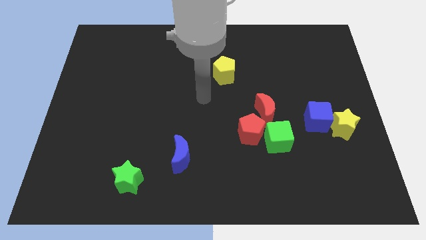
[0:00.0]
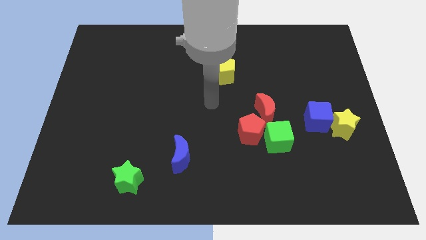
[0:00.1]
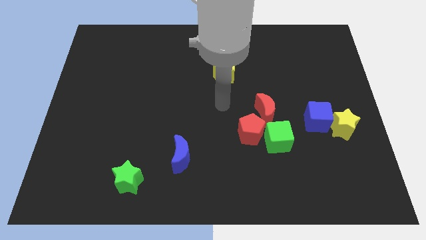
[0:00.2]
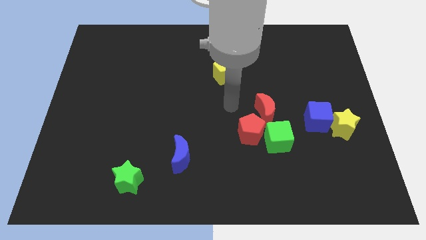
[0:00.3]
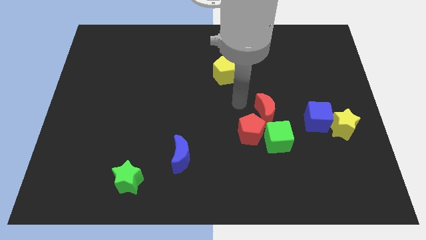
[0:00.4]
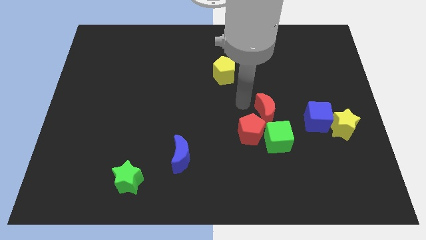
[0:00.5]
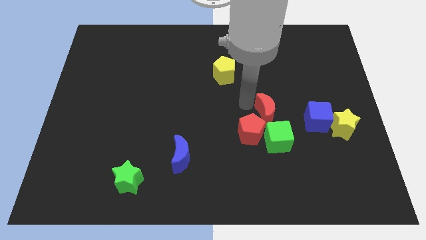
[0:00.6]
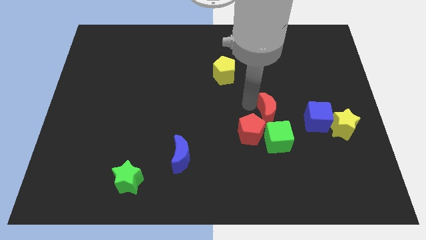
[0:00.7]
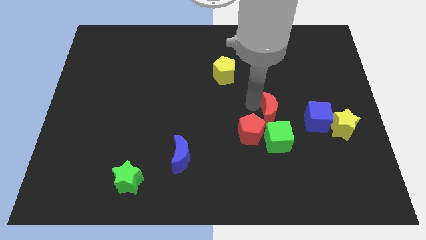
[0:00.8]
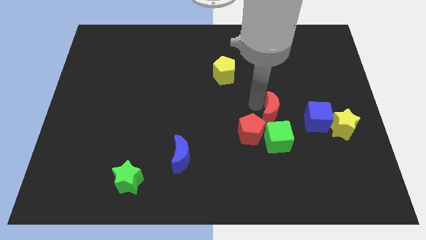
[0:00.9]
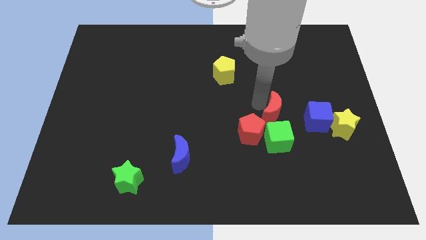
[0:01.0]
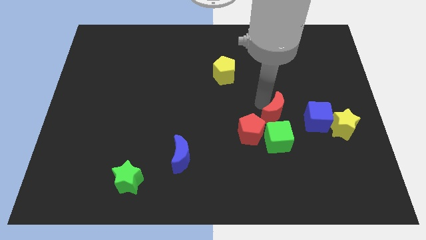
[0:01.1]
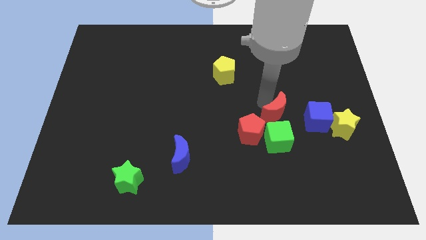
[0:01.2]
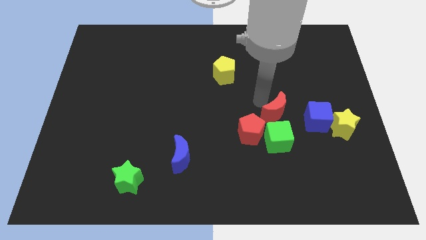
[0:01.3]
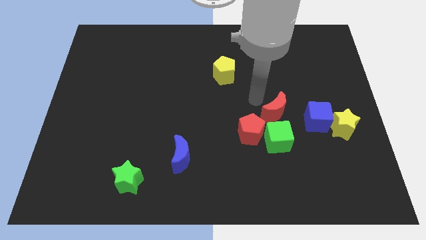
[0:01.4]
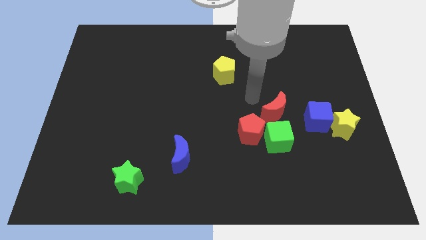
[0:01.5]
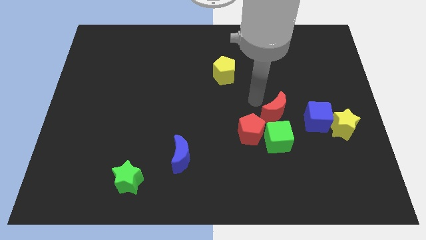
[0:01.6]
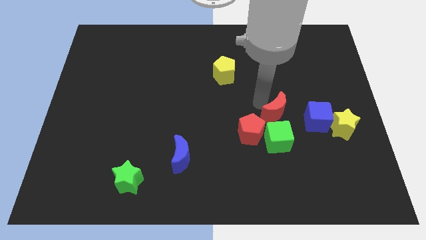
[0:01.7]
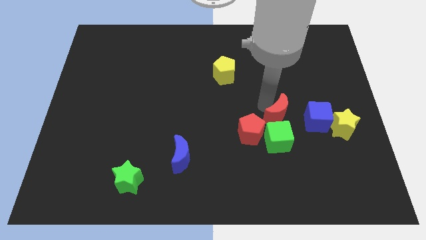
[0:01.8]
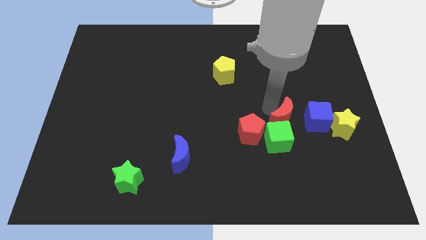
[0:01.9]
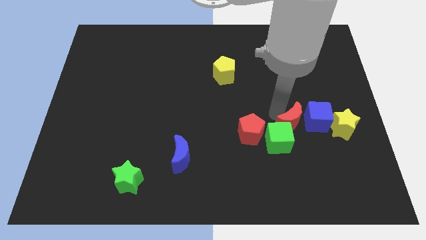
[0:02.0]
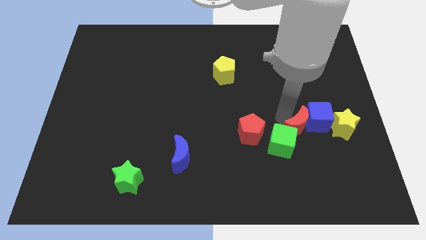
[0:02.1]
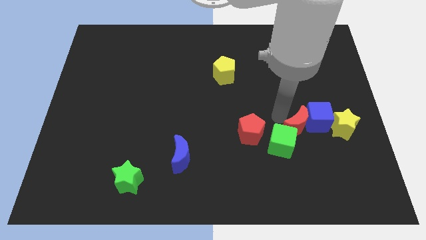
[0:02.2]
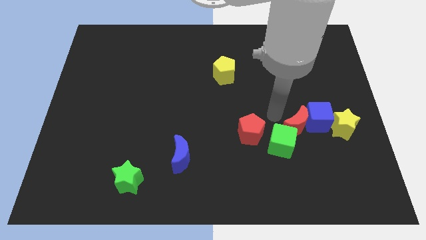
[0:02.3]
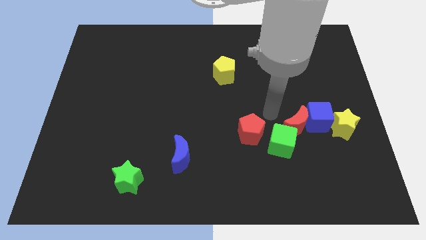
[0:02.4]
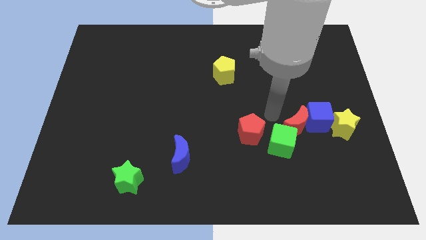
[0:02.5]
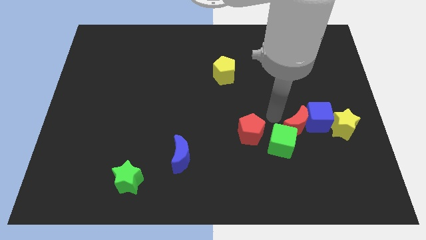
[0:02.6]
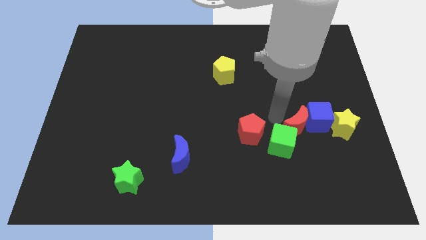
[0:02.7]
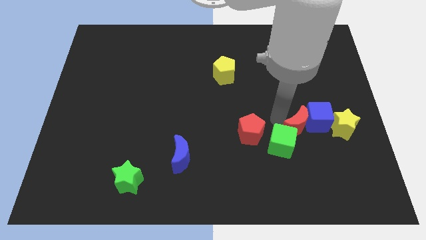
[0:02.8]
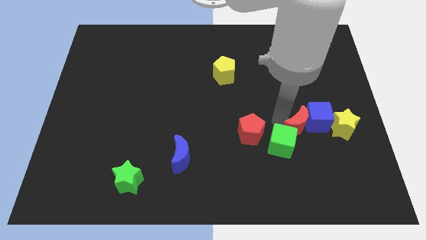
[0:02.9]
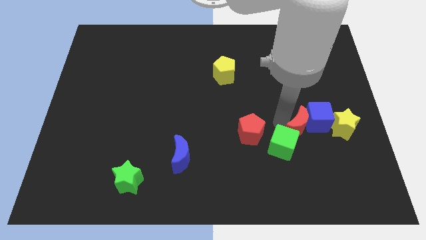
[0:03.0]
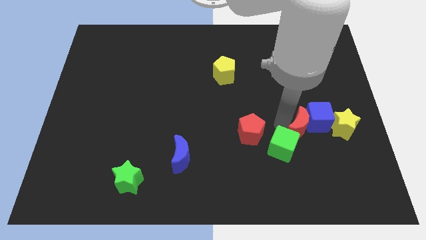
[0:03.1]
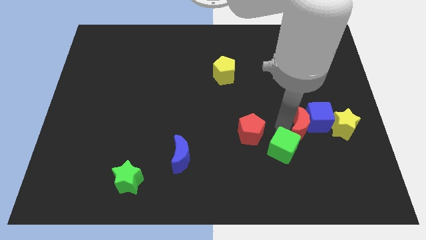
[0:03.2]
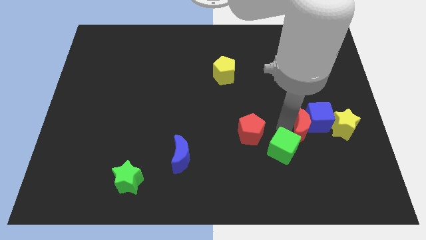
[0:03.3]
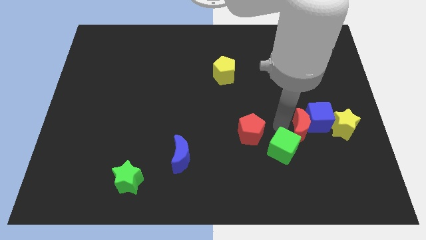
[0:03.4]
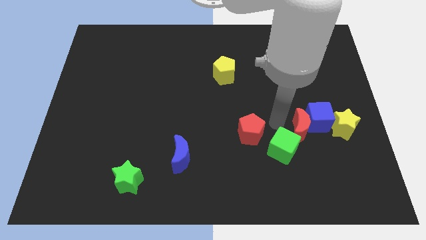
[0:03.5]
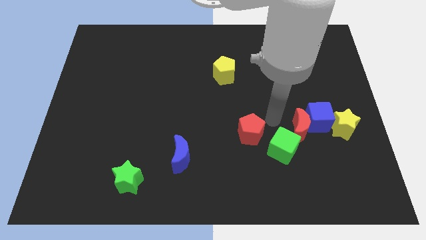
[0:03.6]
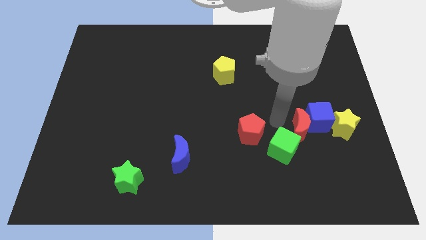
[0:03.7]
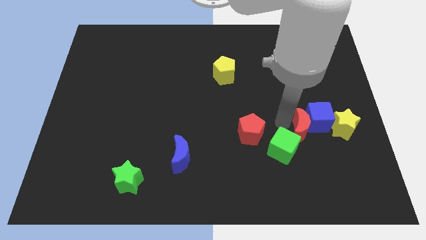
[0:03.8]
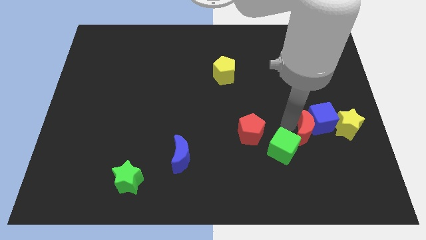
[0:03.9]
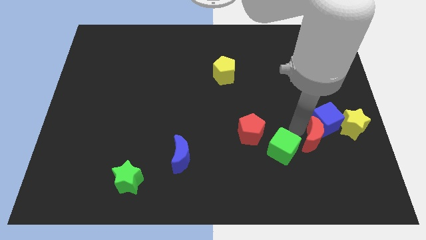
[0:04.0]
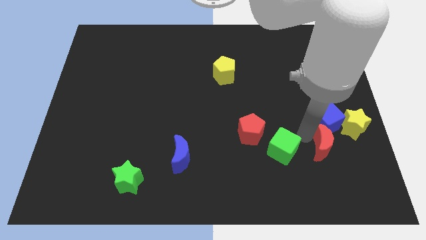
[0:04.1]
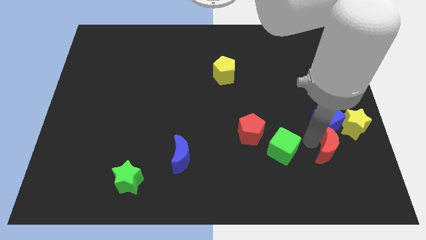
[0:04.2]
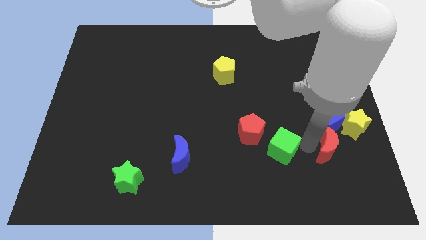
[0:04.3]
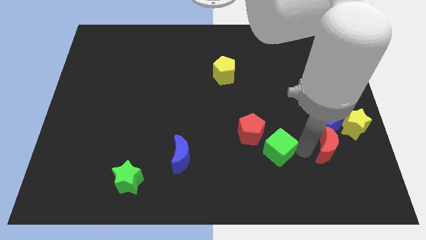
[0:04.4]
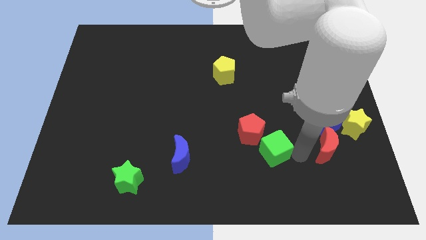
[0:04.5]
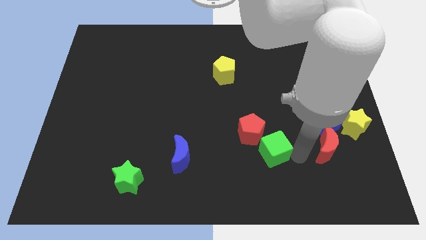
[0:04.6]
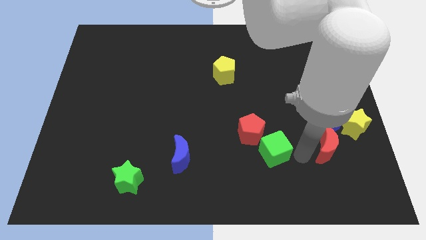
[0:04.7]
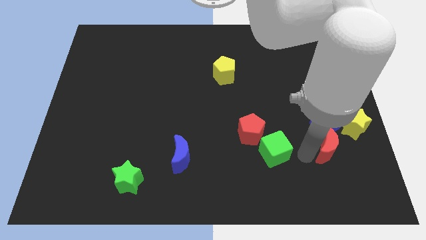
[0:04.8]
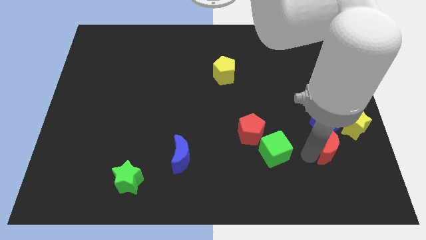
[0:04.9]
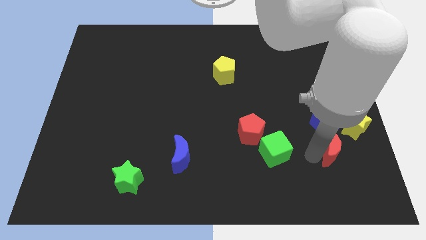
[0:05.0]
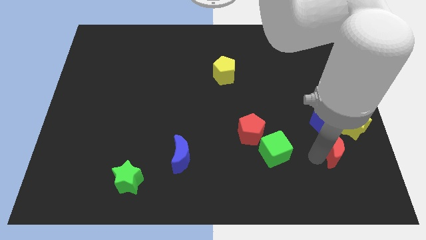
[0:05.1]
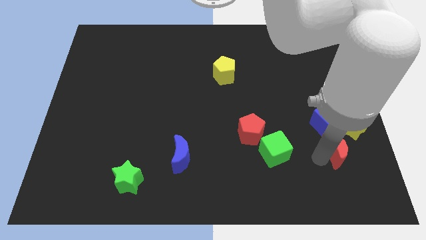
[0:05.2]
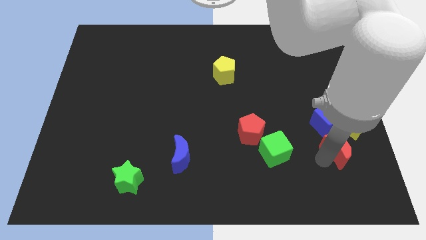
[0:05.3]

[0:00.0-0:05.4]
put the red moon to the bottom right of the blue cube

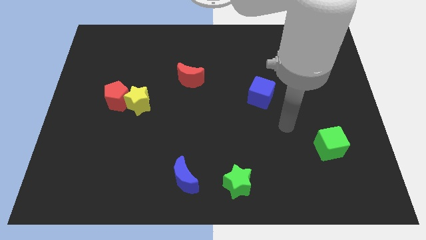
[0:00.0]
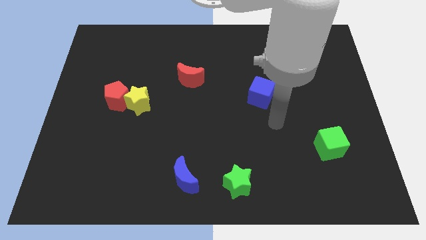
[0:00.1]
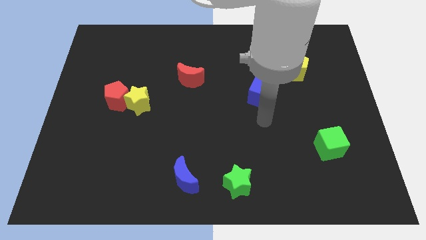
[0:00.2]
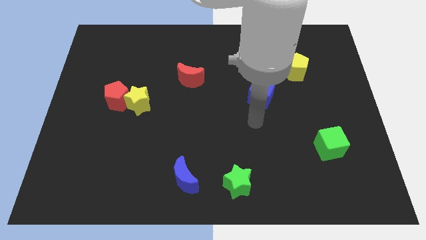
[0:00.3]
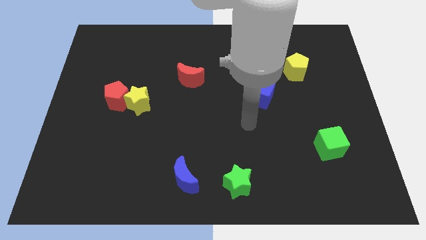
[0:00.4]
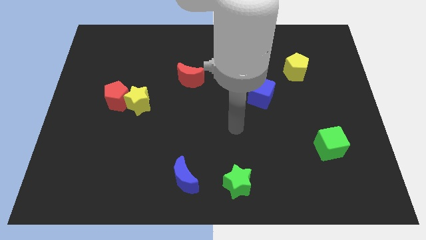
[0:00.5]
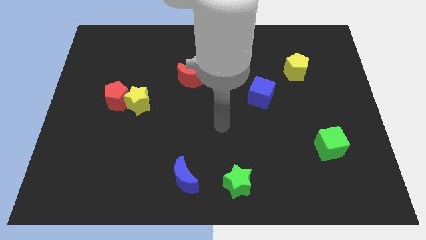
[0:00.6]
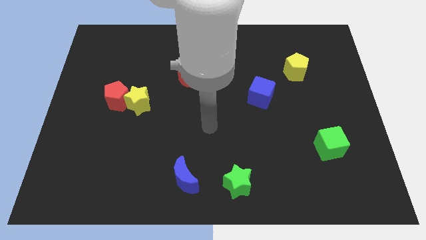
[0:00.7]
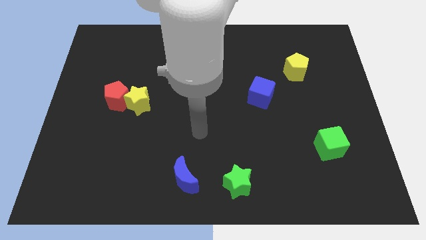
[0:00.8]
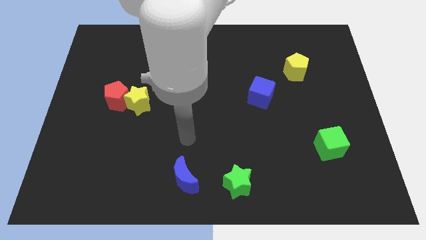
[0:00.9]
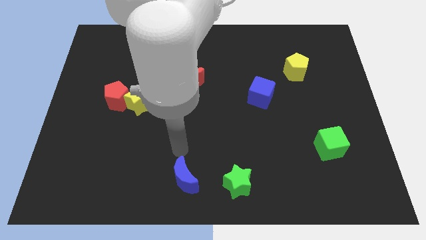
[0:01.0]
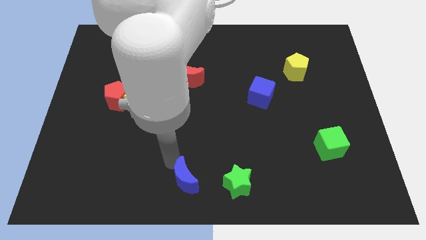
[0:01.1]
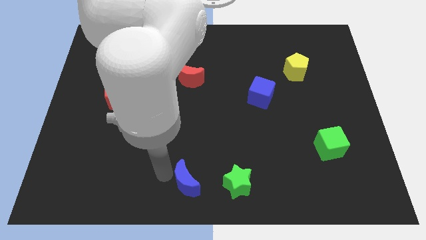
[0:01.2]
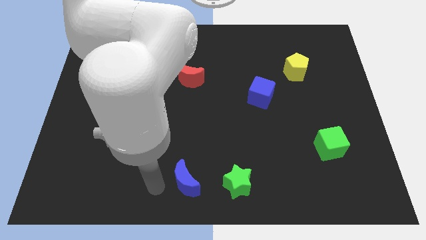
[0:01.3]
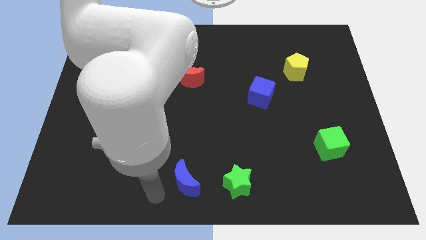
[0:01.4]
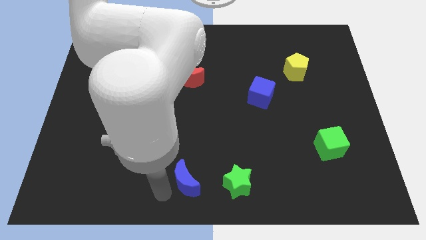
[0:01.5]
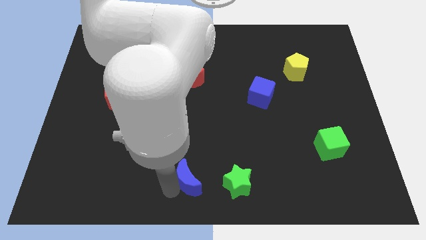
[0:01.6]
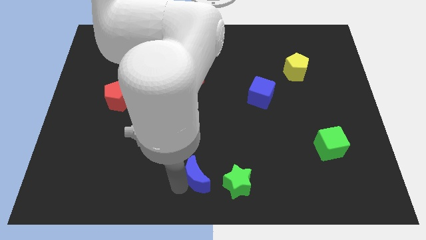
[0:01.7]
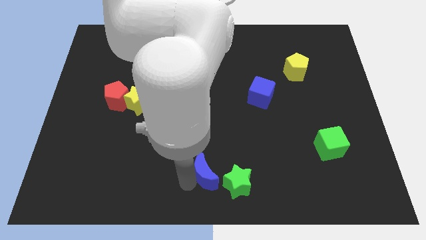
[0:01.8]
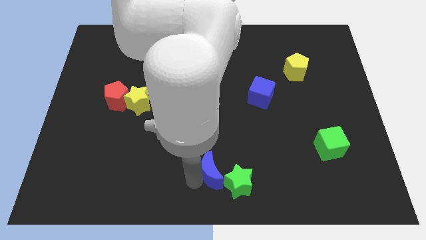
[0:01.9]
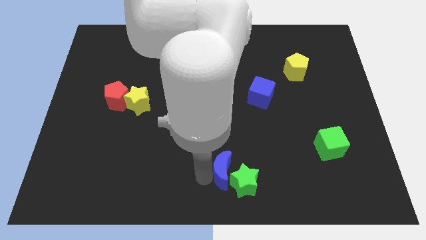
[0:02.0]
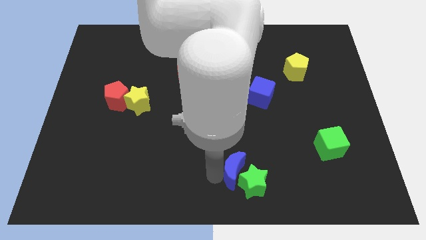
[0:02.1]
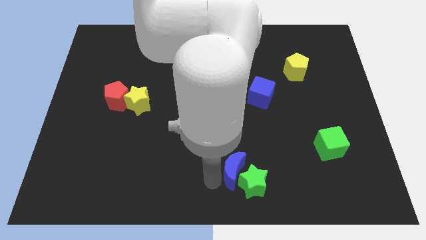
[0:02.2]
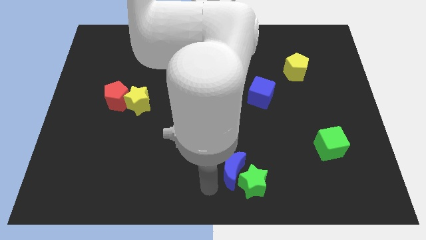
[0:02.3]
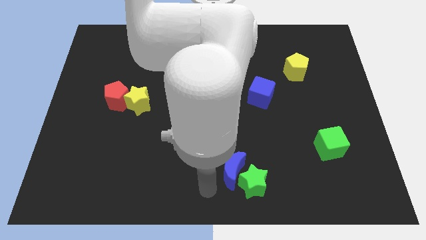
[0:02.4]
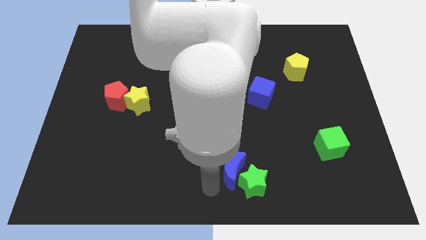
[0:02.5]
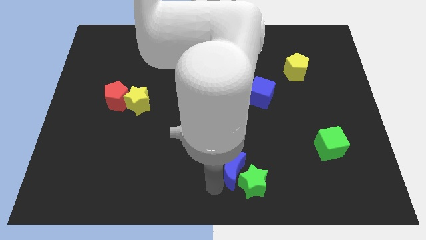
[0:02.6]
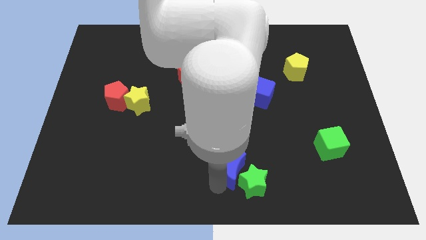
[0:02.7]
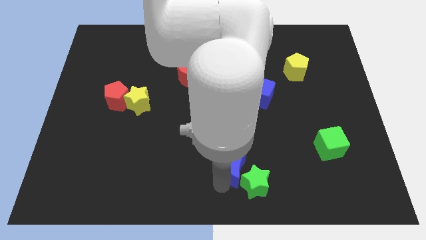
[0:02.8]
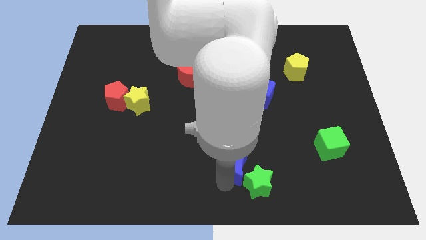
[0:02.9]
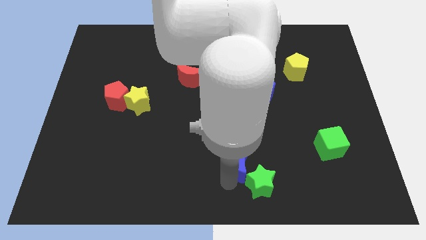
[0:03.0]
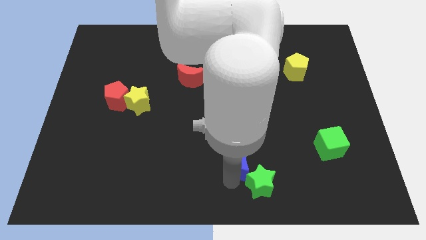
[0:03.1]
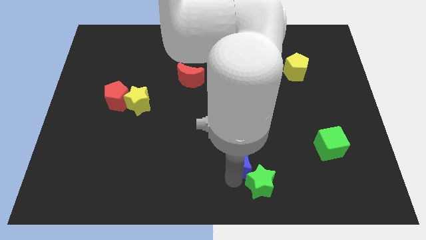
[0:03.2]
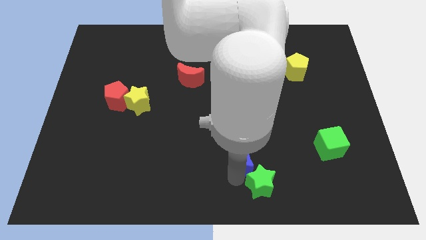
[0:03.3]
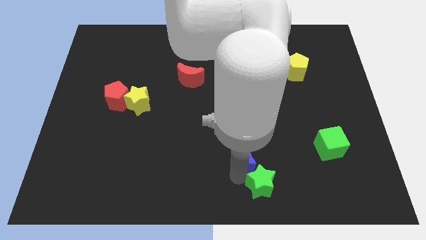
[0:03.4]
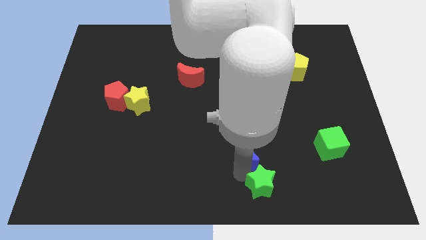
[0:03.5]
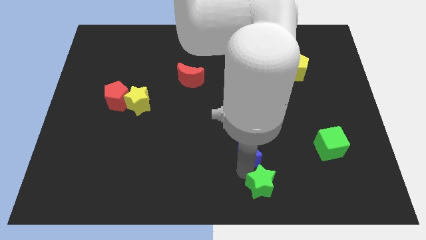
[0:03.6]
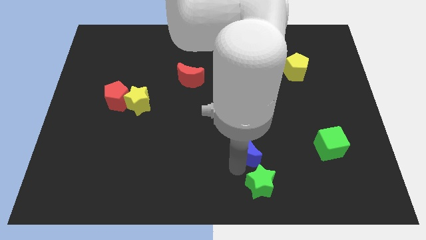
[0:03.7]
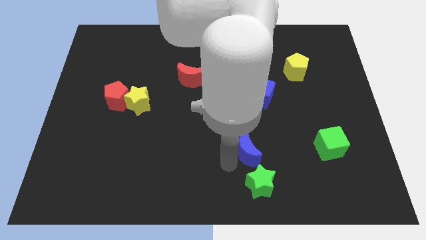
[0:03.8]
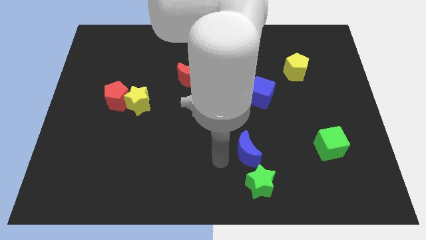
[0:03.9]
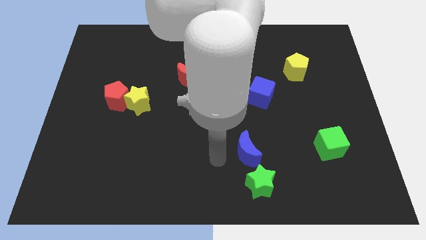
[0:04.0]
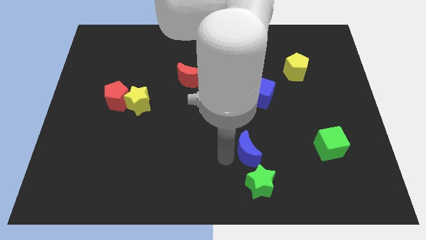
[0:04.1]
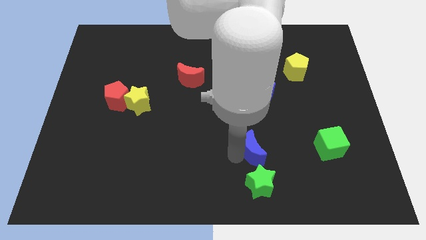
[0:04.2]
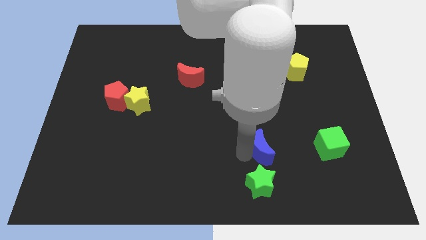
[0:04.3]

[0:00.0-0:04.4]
move the blue moon to the left of the green cube
